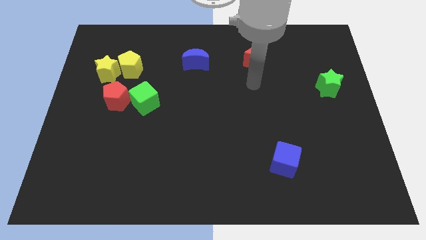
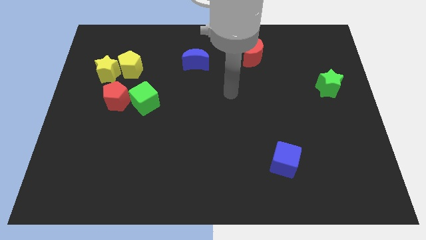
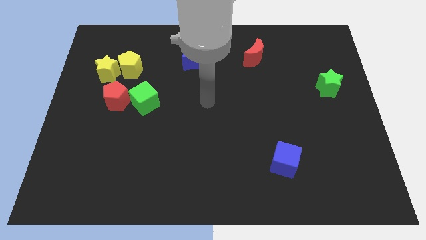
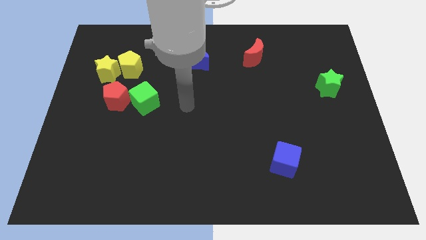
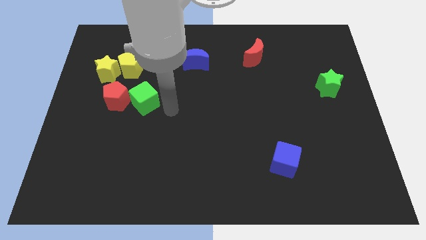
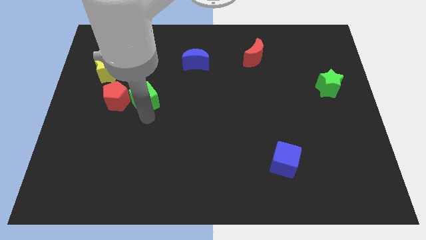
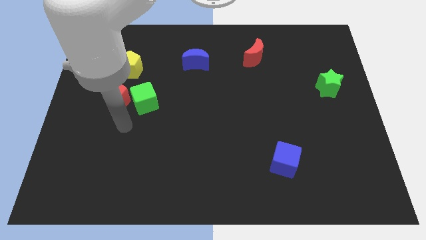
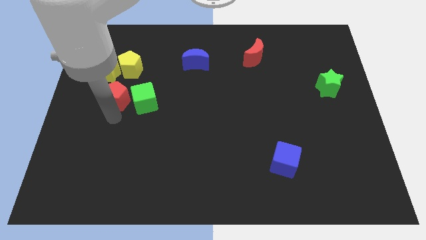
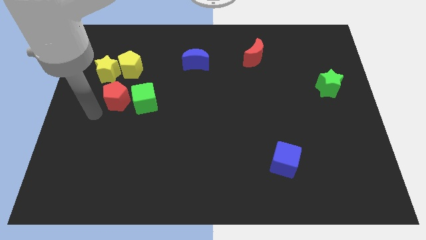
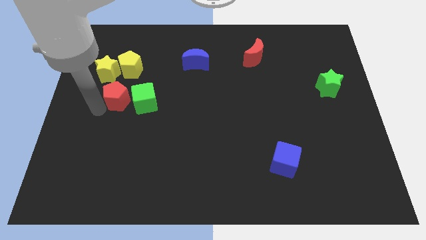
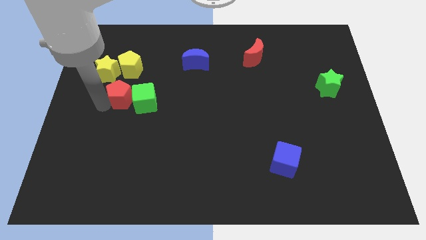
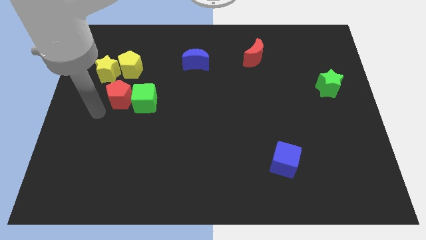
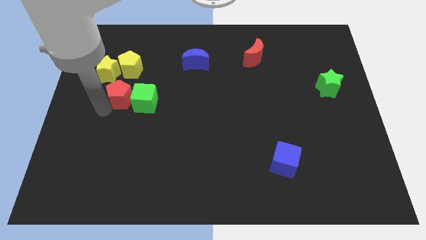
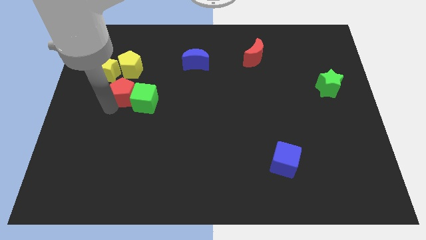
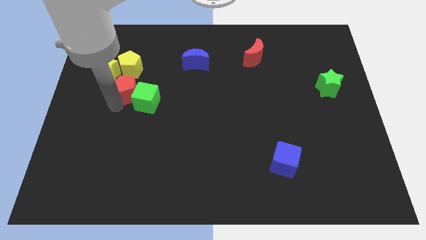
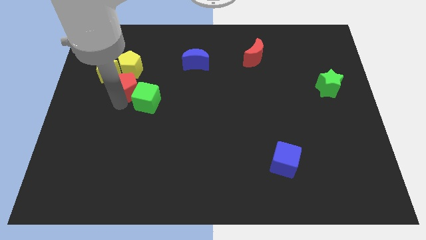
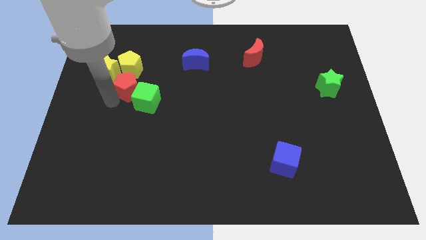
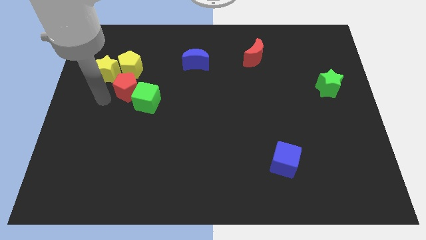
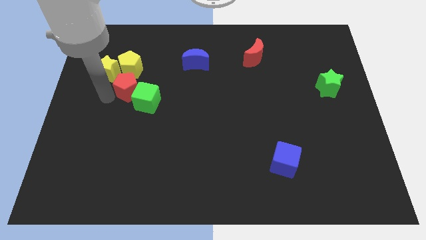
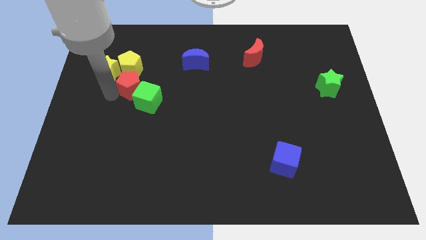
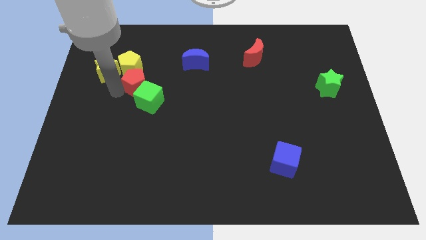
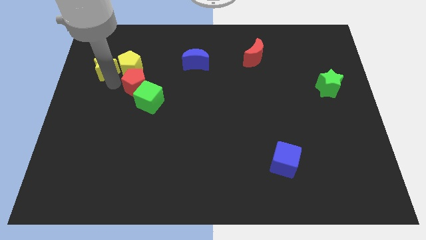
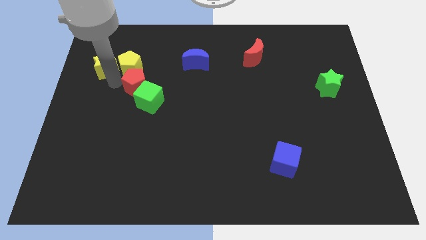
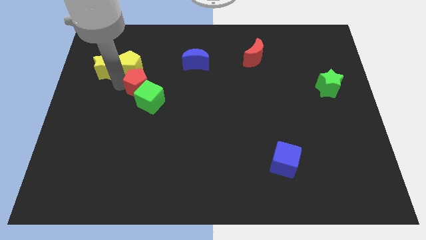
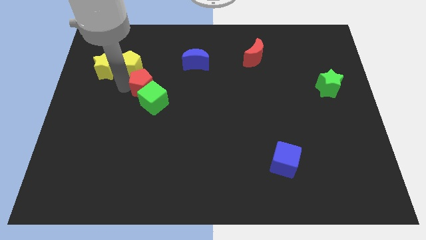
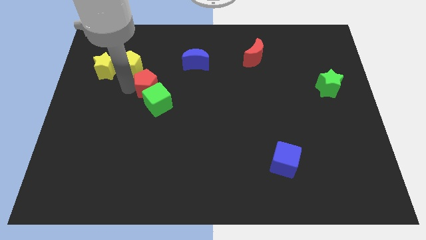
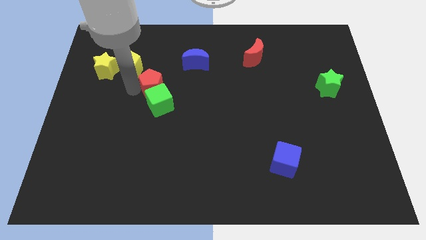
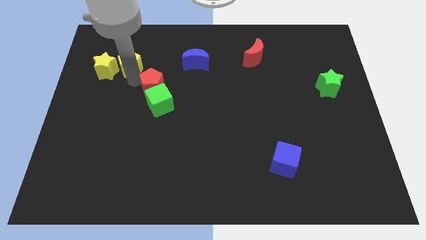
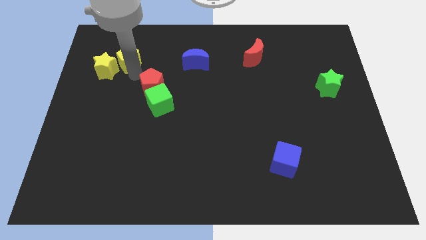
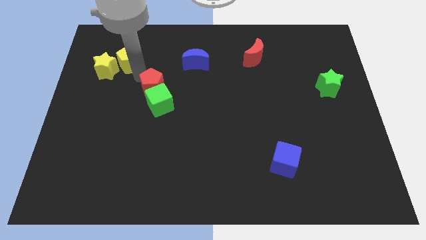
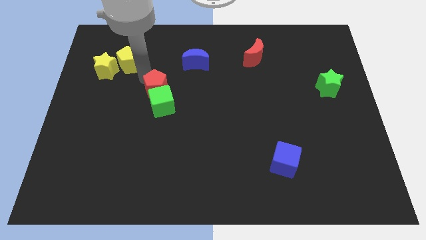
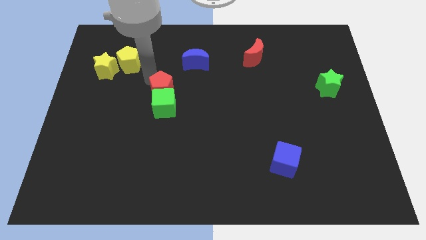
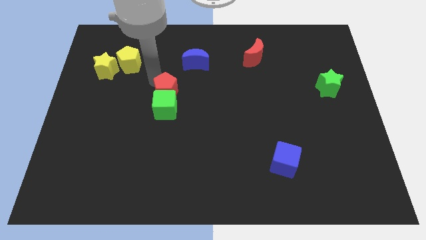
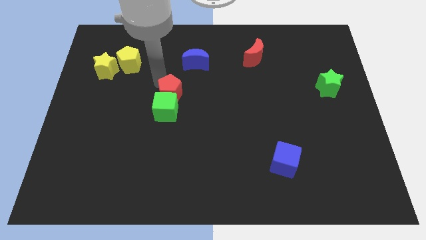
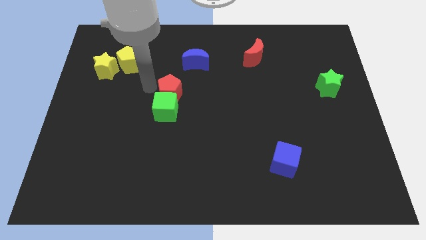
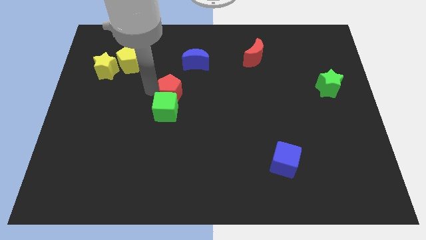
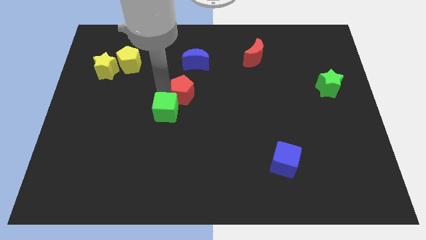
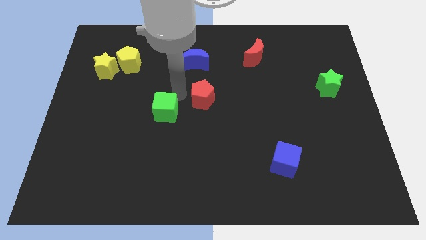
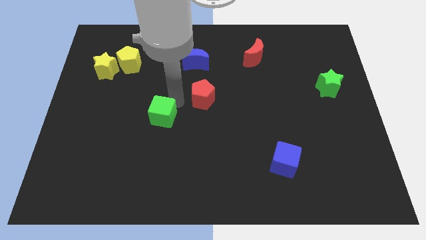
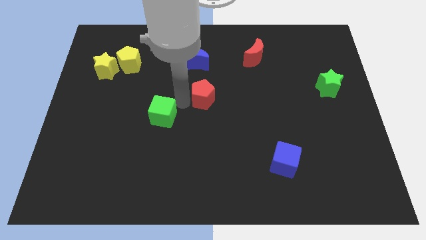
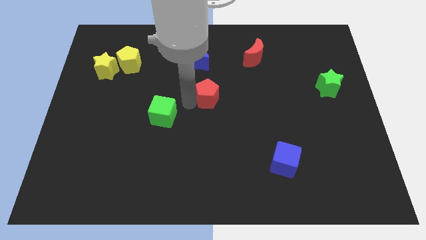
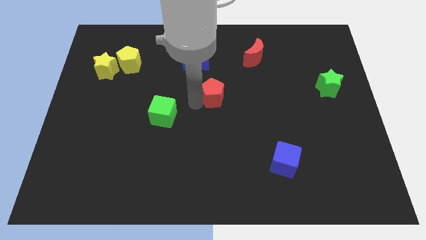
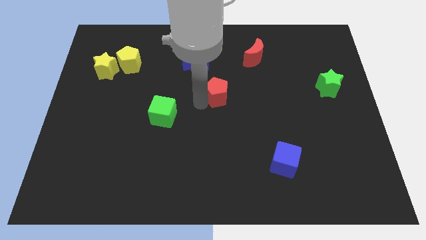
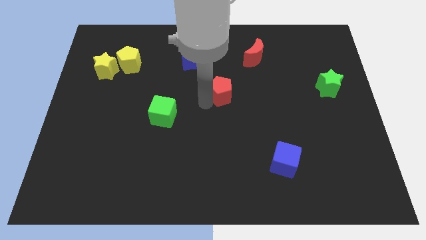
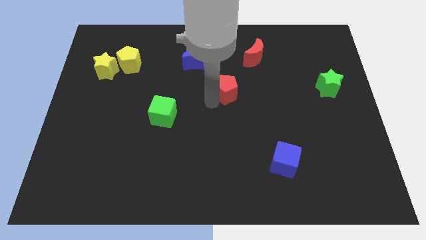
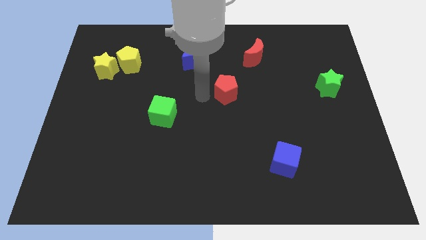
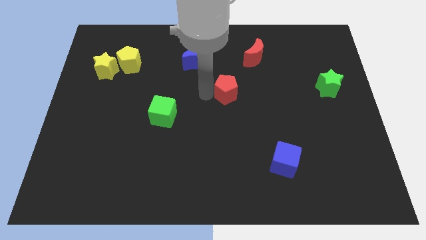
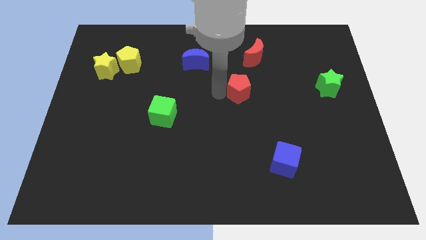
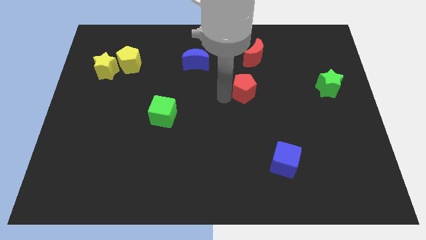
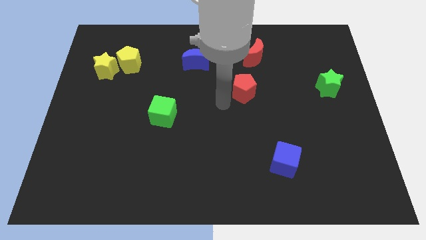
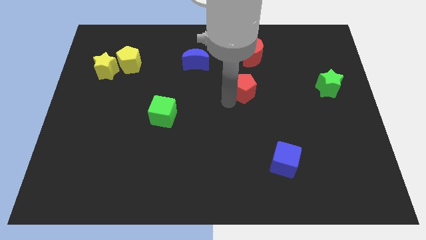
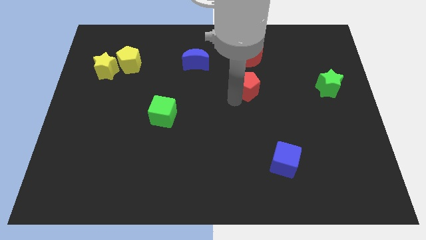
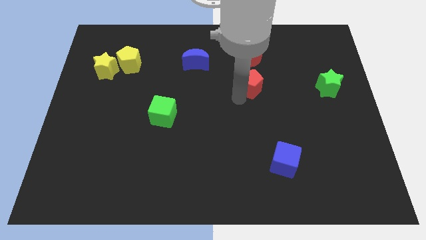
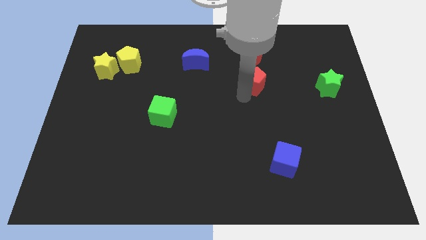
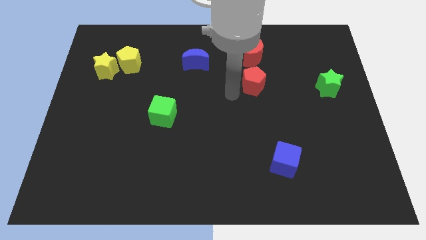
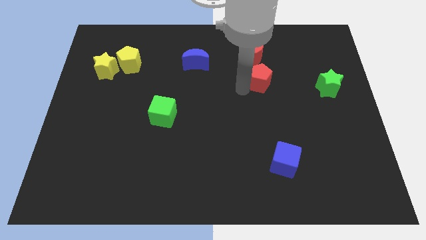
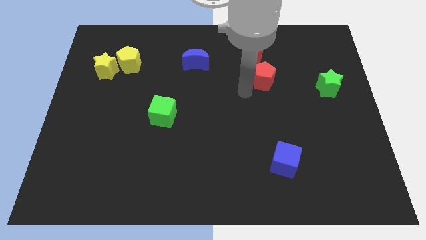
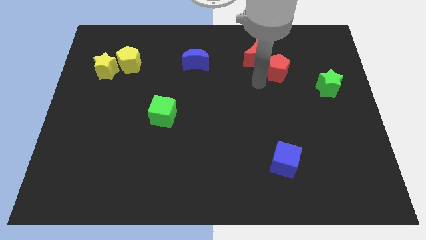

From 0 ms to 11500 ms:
put the red pentagon to the right of the red moon

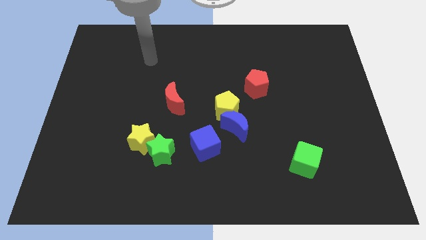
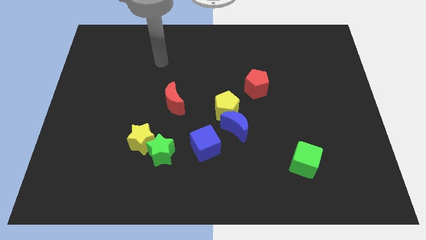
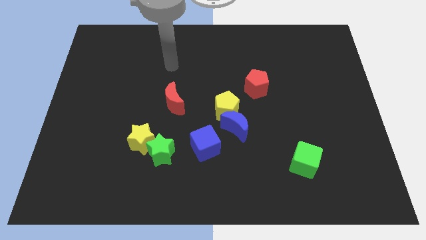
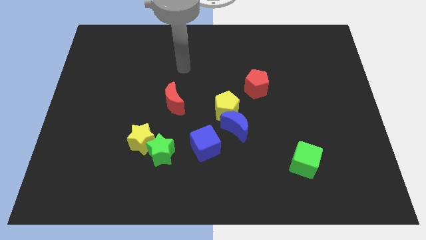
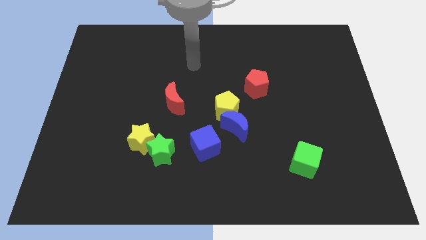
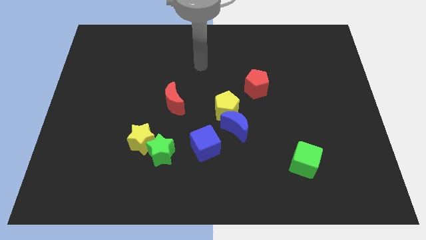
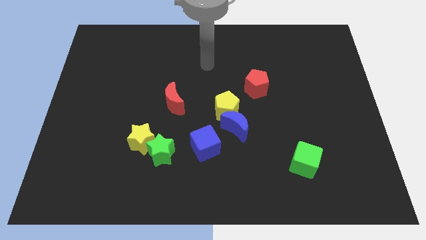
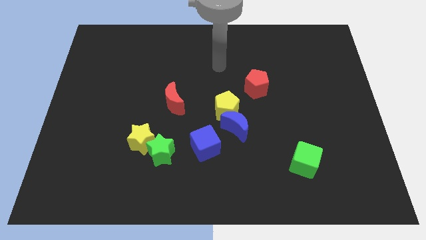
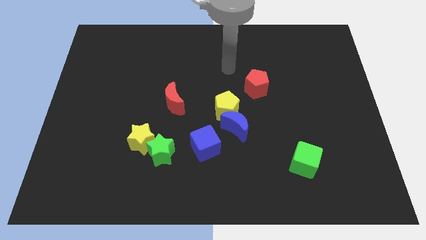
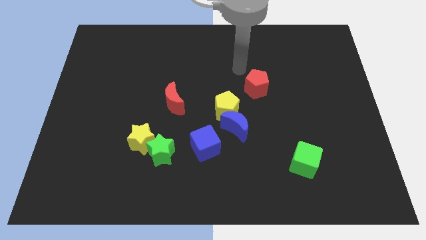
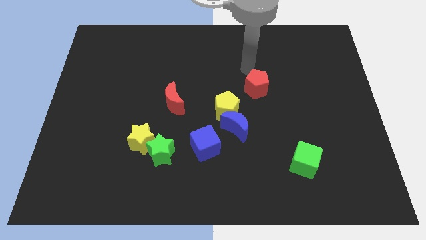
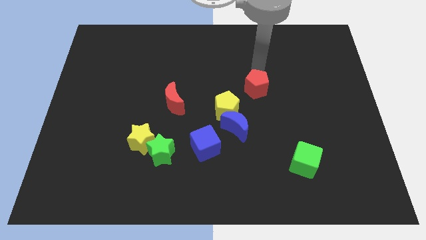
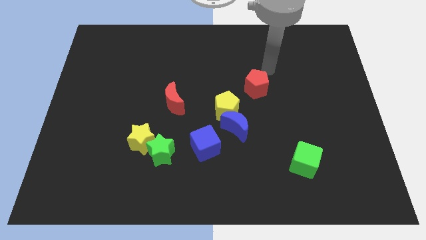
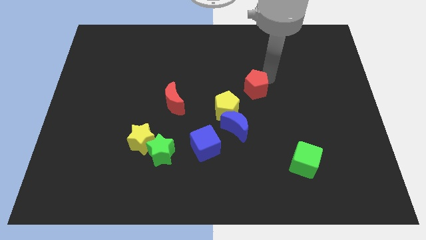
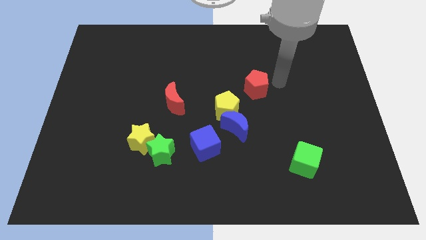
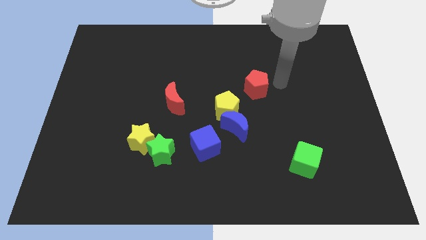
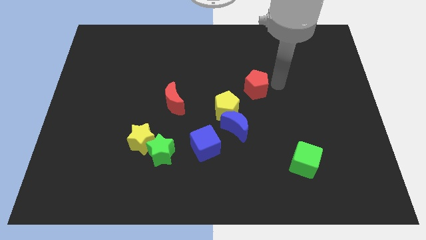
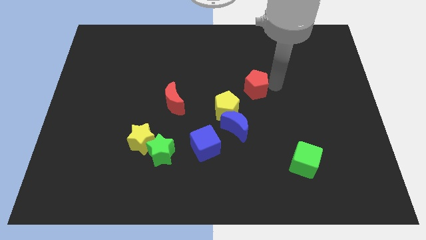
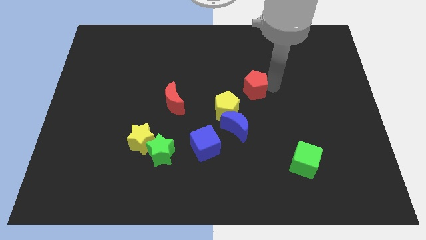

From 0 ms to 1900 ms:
put the red pentagon to the top side of the blue moon
